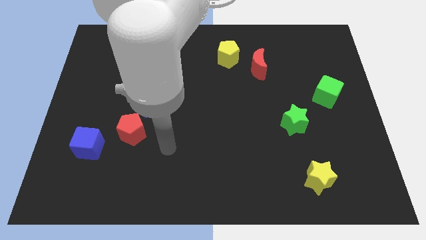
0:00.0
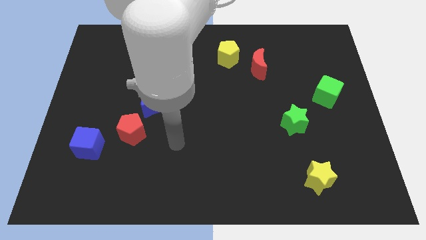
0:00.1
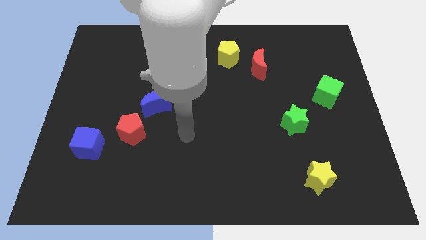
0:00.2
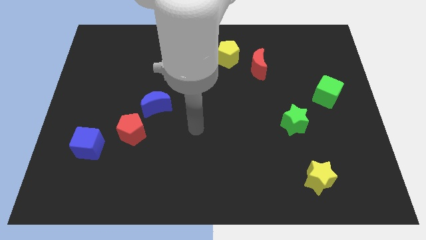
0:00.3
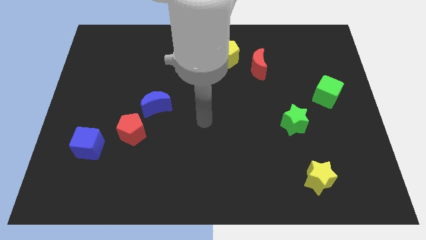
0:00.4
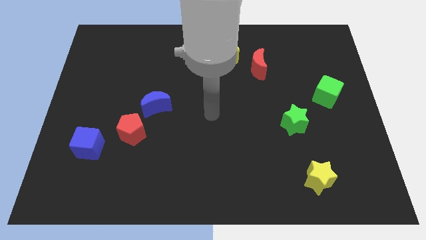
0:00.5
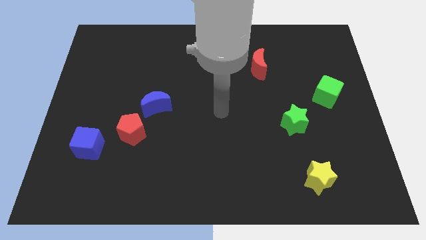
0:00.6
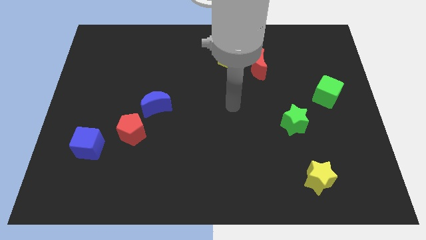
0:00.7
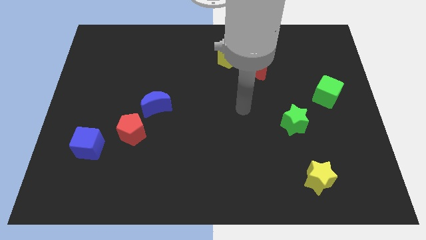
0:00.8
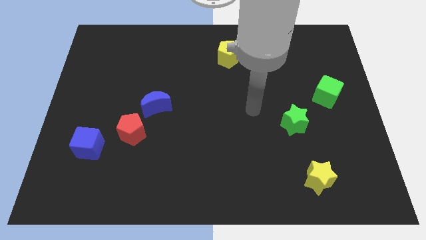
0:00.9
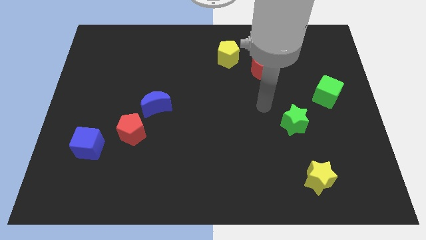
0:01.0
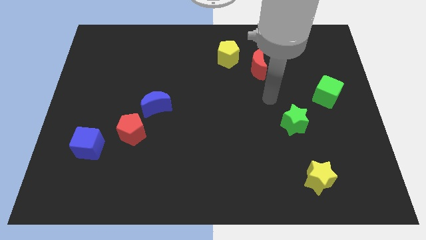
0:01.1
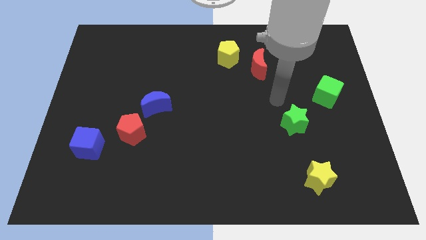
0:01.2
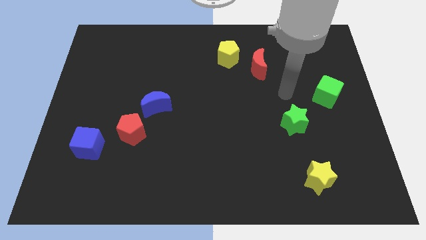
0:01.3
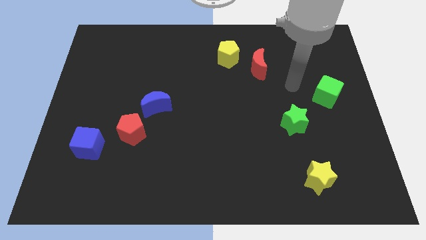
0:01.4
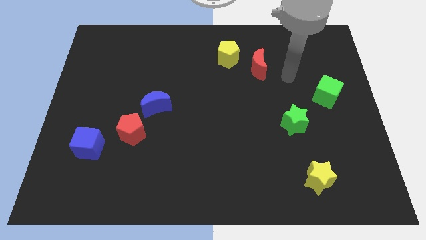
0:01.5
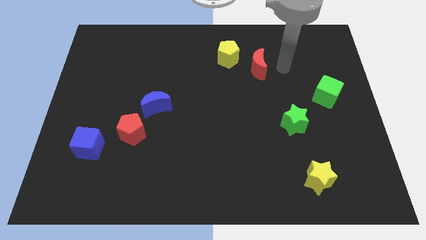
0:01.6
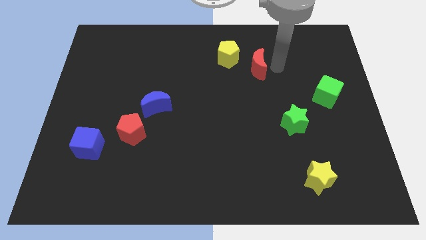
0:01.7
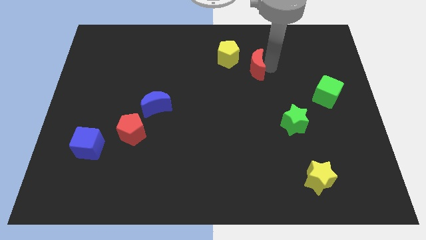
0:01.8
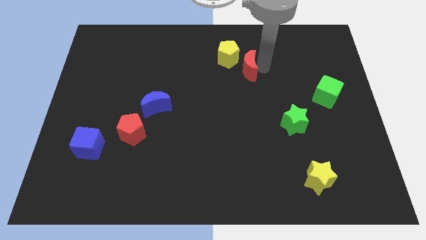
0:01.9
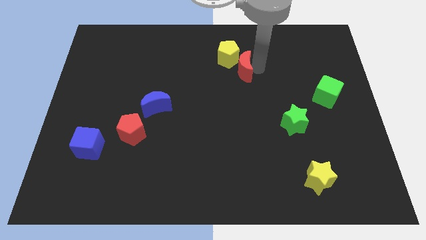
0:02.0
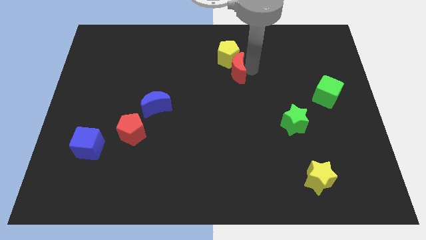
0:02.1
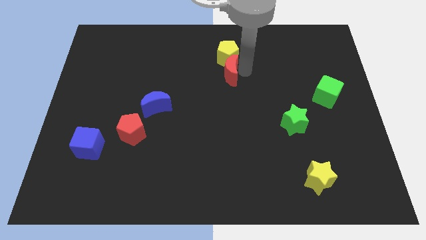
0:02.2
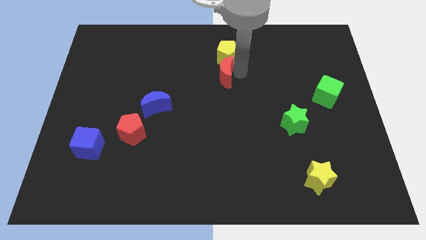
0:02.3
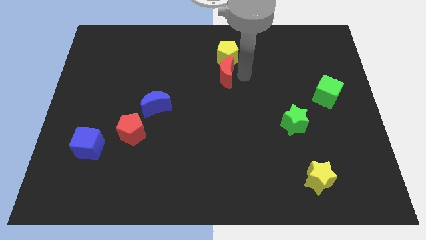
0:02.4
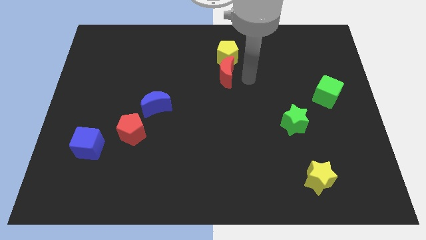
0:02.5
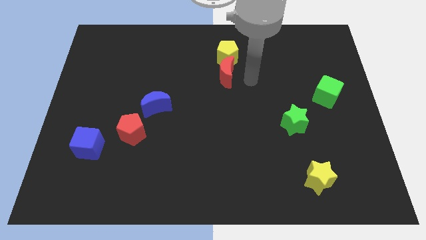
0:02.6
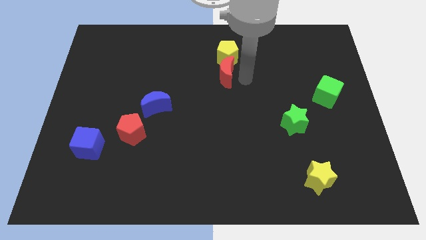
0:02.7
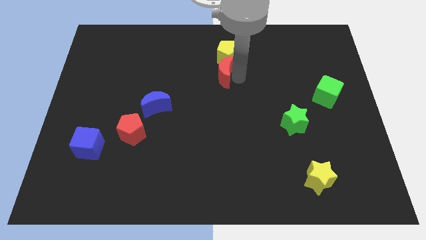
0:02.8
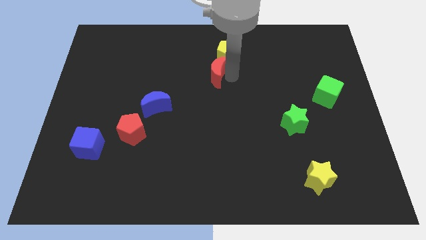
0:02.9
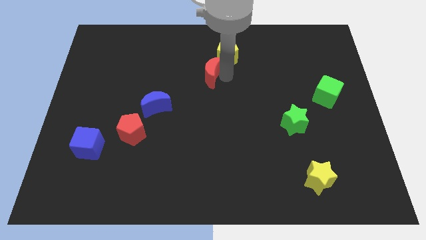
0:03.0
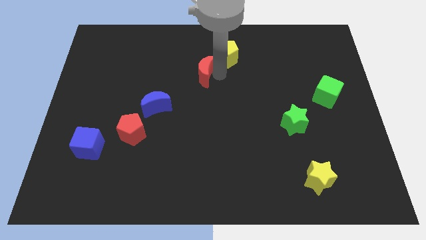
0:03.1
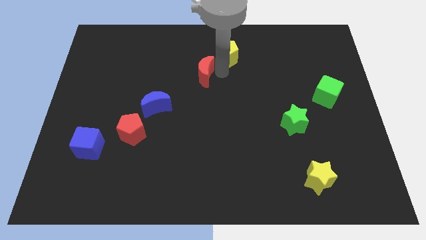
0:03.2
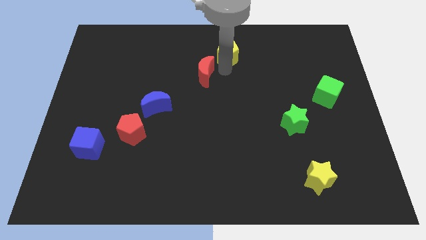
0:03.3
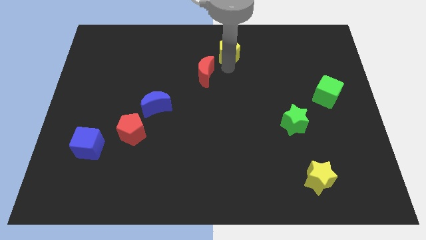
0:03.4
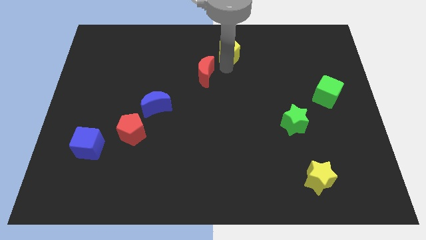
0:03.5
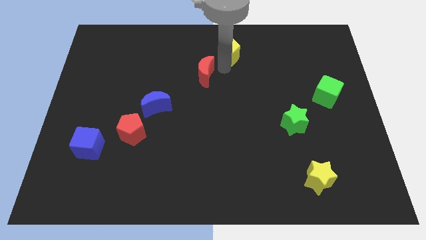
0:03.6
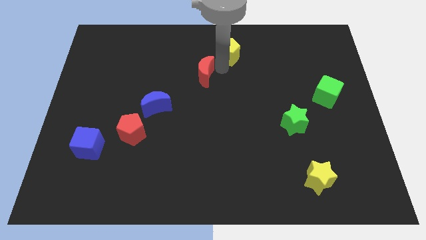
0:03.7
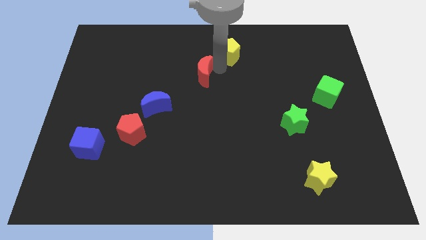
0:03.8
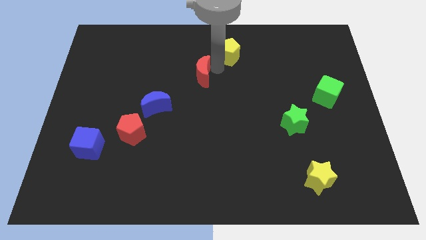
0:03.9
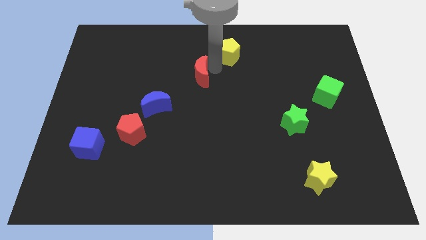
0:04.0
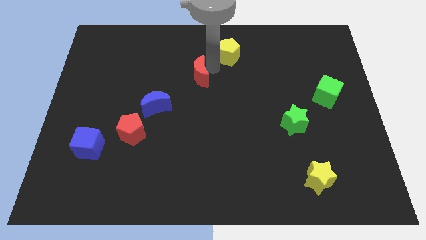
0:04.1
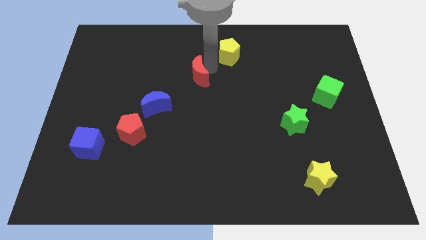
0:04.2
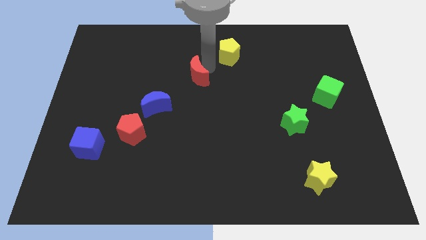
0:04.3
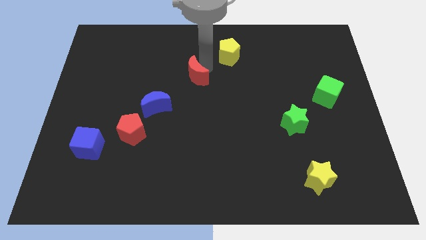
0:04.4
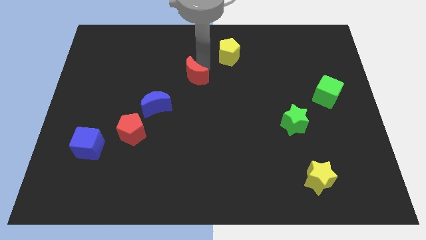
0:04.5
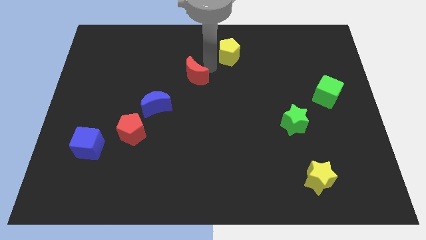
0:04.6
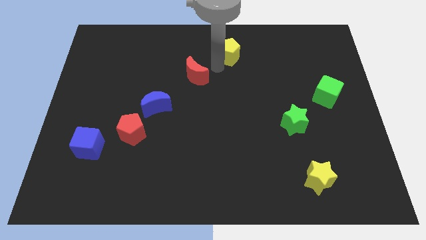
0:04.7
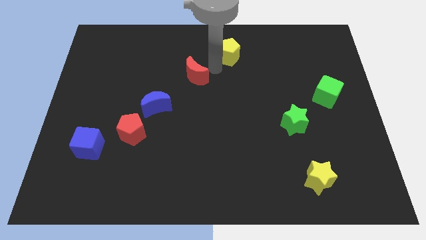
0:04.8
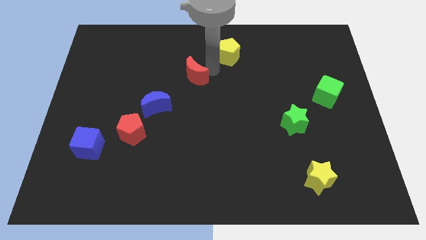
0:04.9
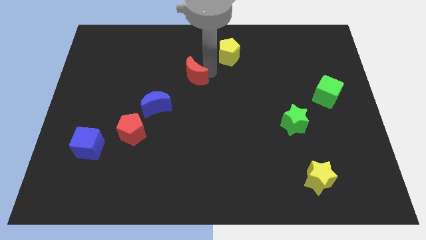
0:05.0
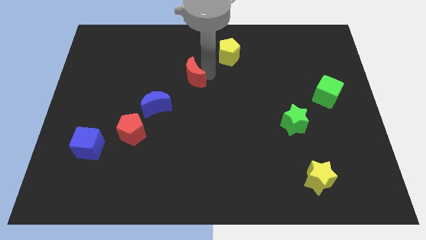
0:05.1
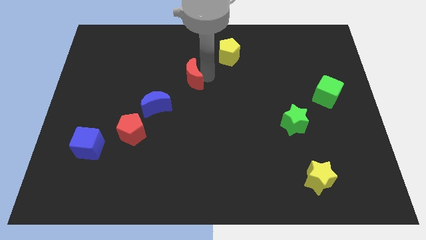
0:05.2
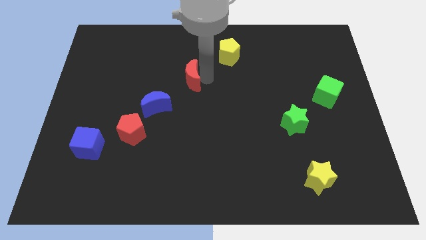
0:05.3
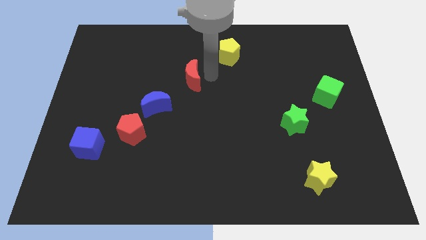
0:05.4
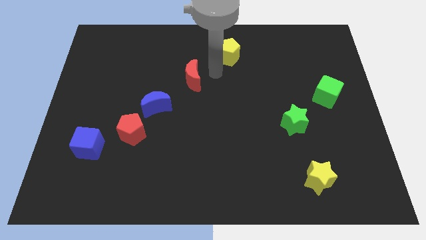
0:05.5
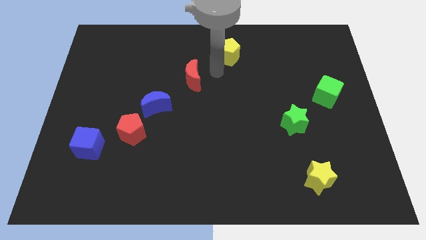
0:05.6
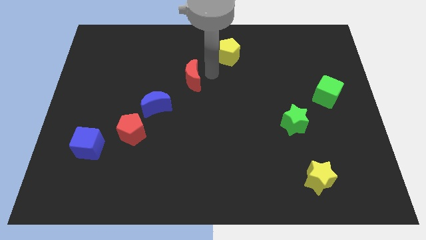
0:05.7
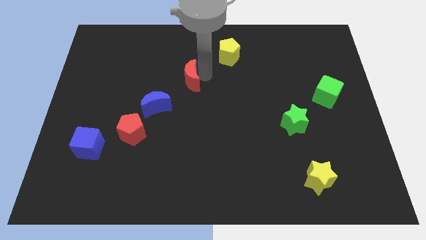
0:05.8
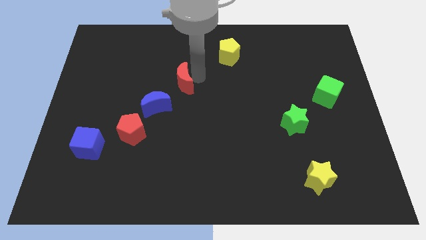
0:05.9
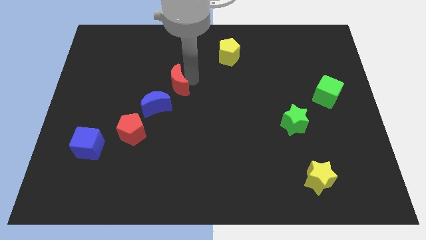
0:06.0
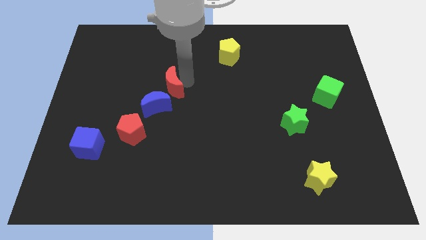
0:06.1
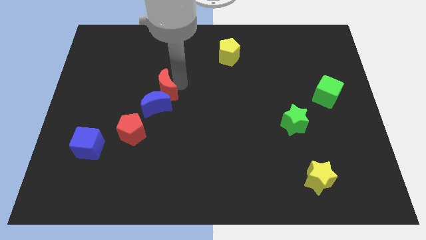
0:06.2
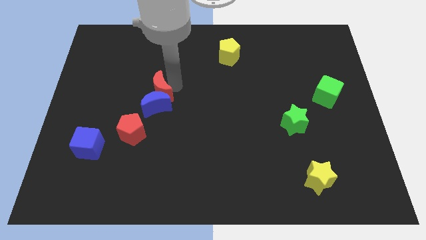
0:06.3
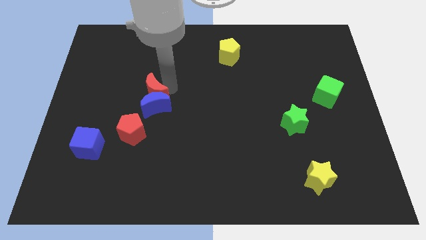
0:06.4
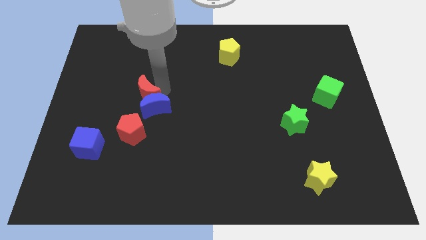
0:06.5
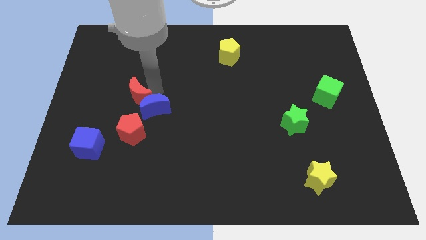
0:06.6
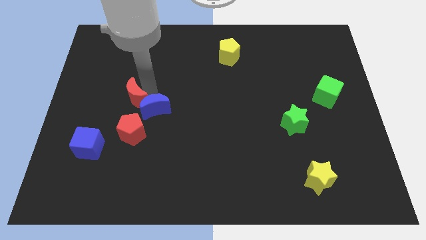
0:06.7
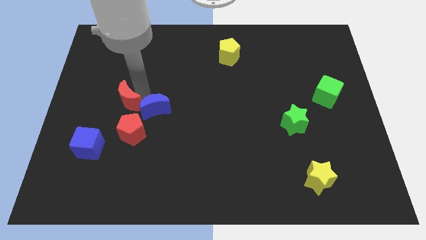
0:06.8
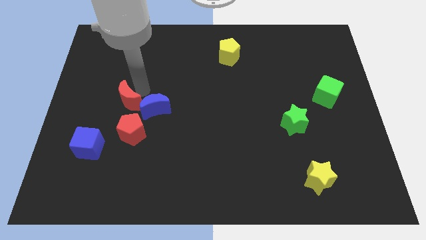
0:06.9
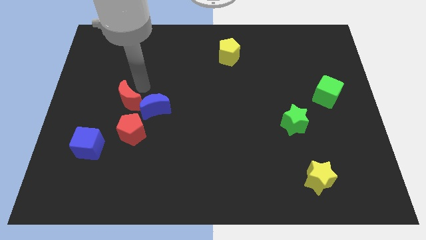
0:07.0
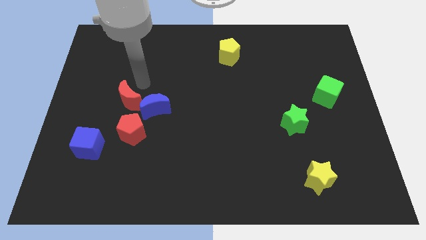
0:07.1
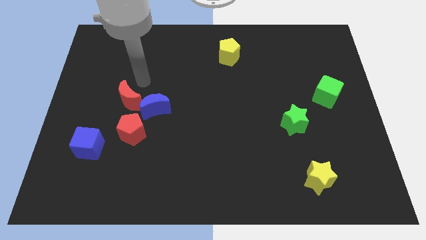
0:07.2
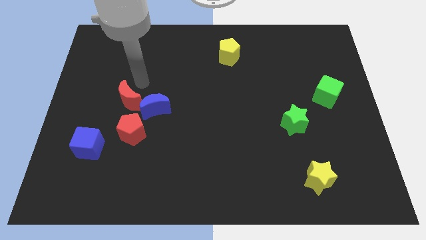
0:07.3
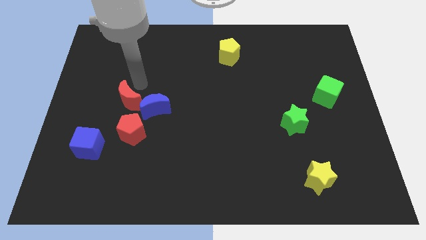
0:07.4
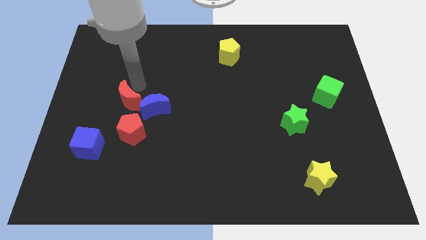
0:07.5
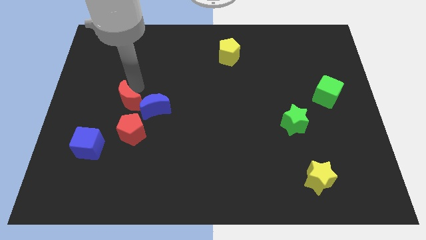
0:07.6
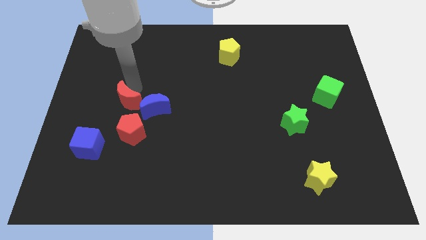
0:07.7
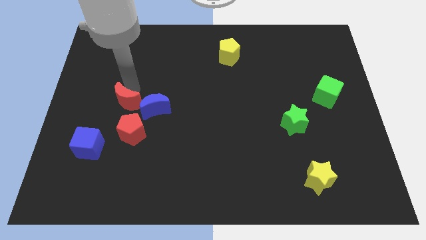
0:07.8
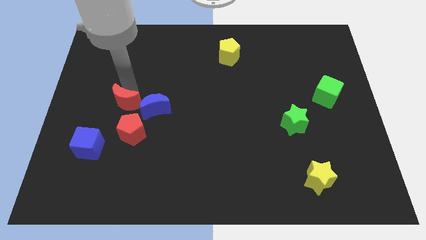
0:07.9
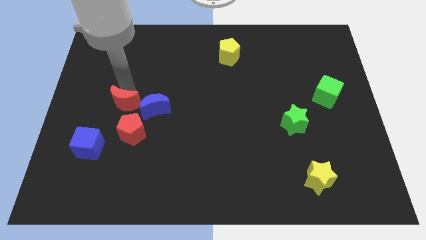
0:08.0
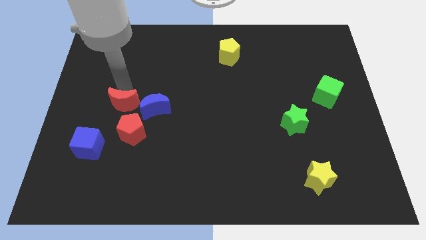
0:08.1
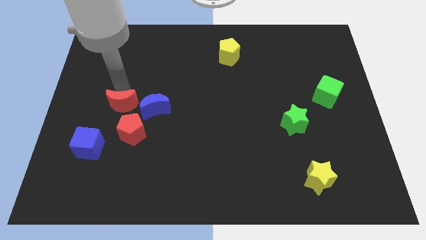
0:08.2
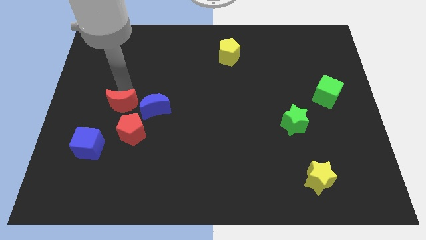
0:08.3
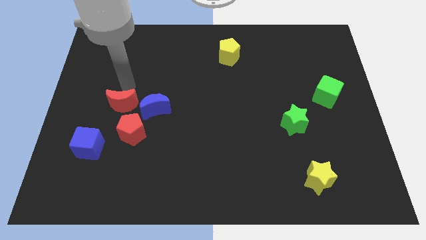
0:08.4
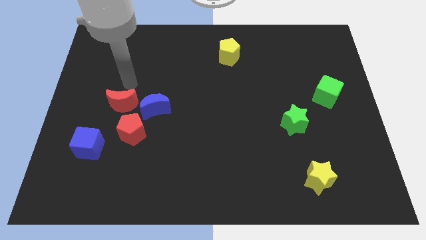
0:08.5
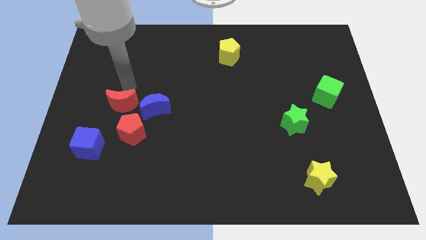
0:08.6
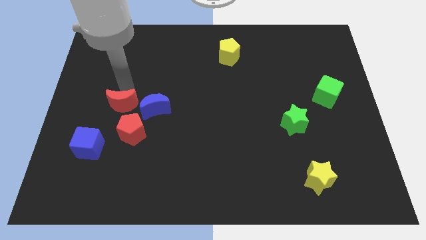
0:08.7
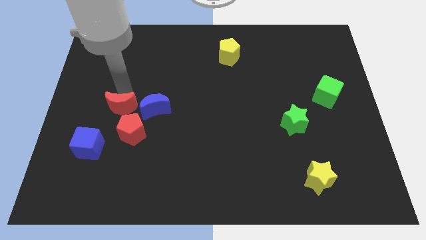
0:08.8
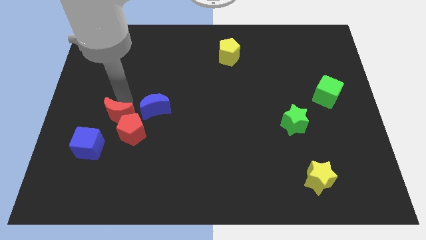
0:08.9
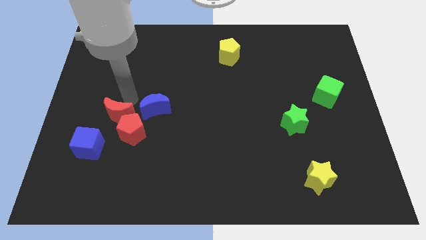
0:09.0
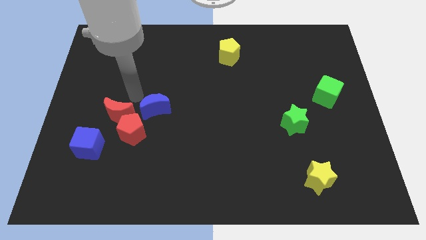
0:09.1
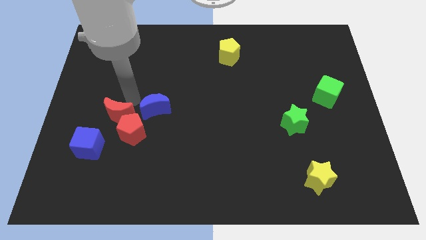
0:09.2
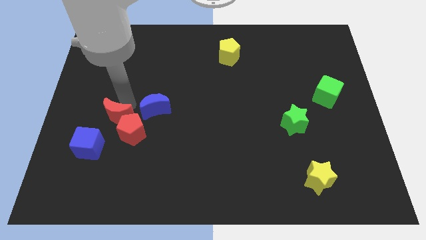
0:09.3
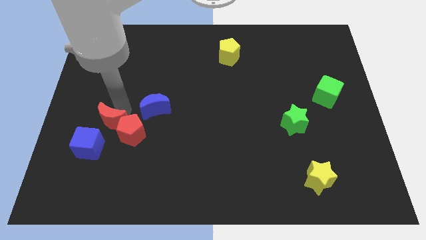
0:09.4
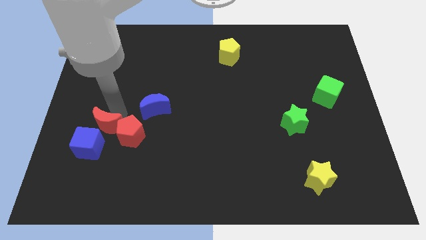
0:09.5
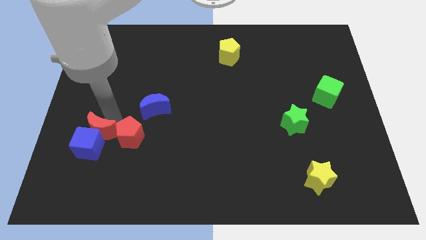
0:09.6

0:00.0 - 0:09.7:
put the red moon towards the blue cube
